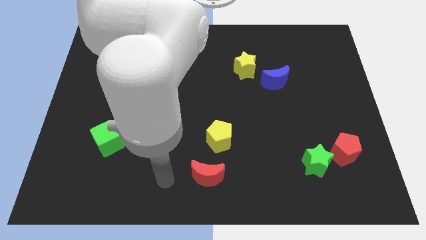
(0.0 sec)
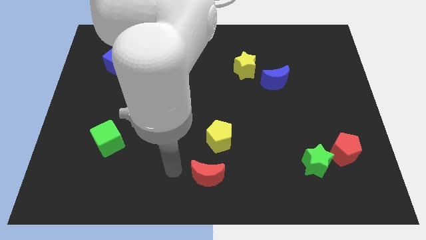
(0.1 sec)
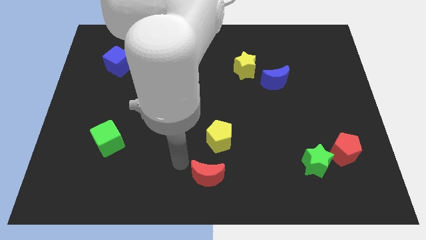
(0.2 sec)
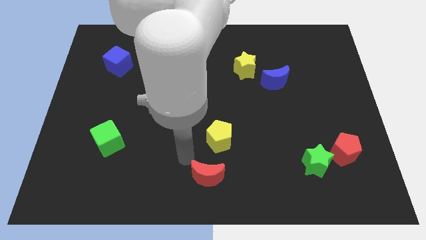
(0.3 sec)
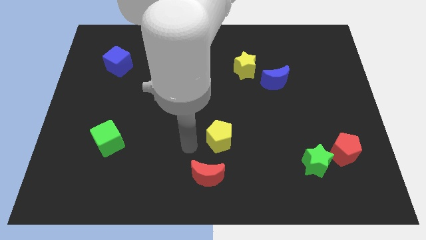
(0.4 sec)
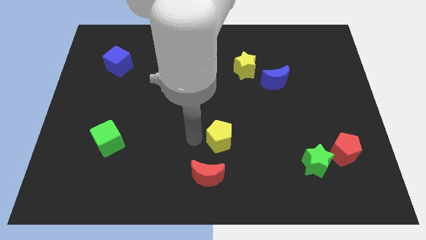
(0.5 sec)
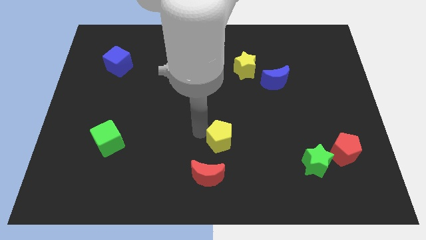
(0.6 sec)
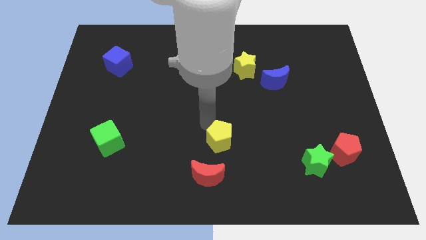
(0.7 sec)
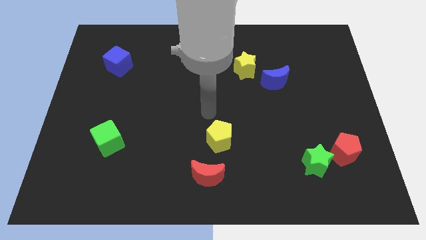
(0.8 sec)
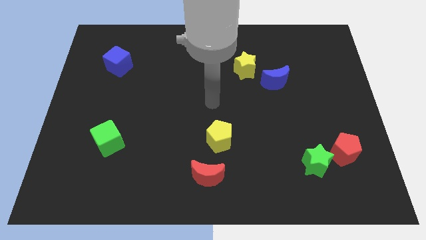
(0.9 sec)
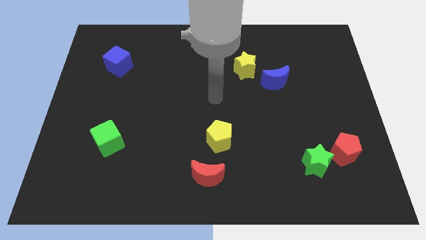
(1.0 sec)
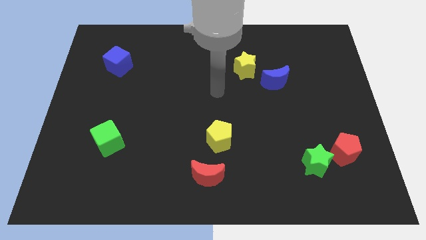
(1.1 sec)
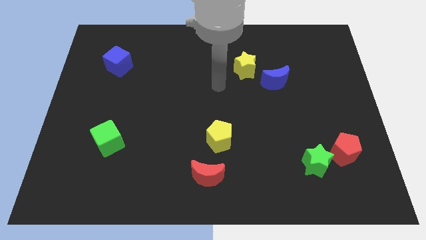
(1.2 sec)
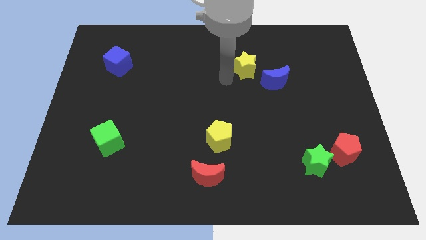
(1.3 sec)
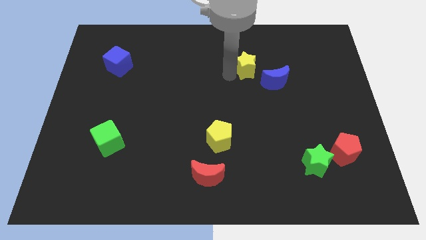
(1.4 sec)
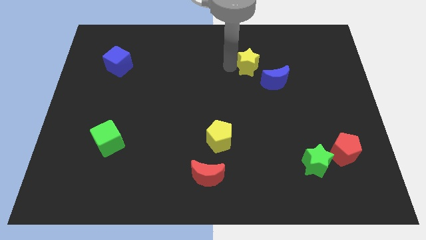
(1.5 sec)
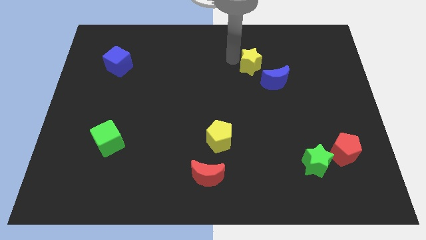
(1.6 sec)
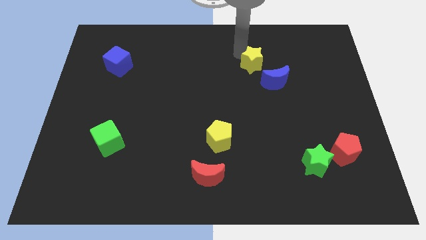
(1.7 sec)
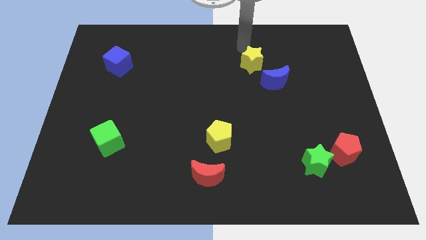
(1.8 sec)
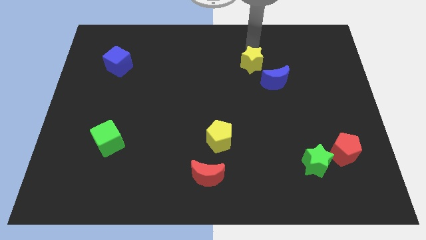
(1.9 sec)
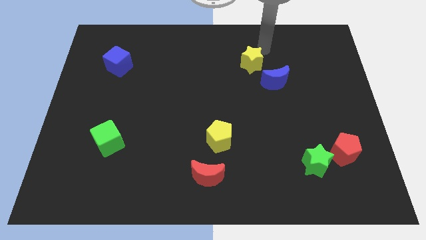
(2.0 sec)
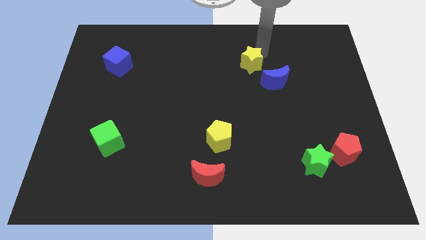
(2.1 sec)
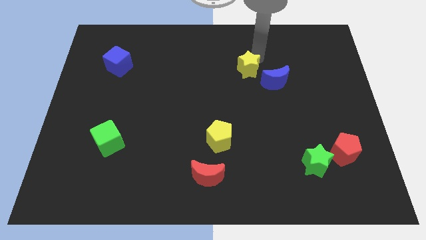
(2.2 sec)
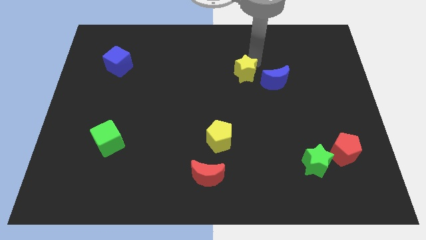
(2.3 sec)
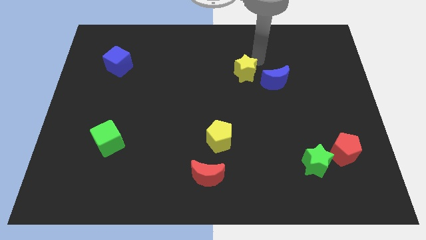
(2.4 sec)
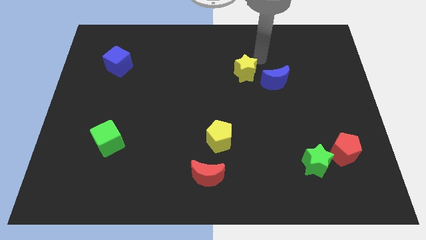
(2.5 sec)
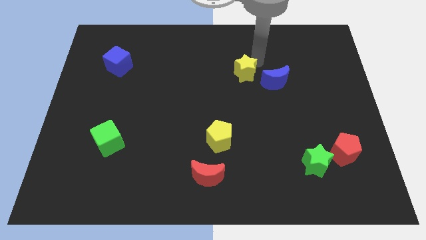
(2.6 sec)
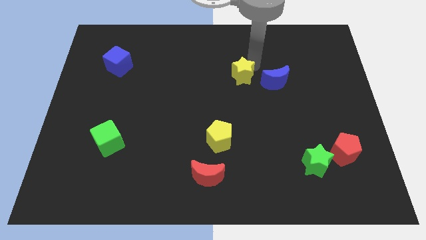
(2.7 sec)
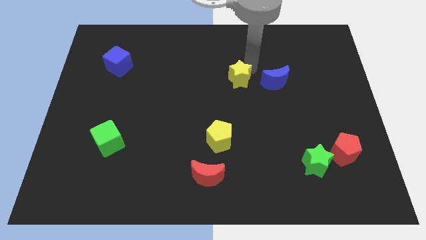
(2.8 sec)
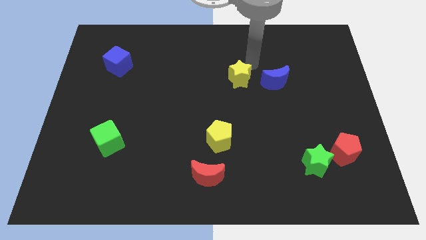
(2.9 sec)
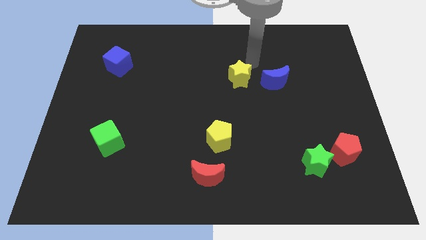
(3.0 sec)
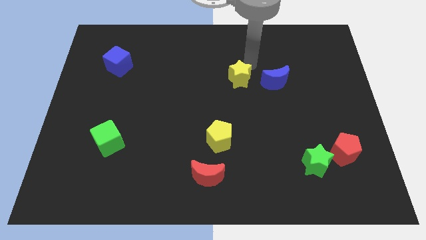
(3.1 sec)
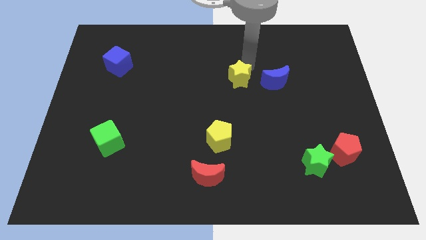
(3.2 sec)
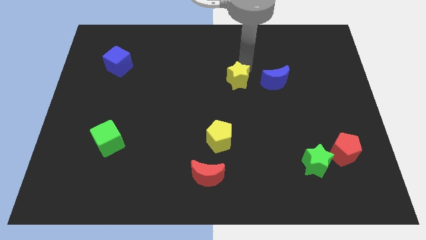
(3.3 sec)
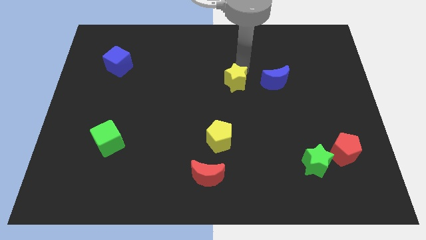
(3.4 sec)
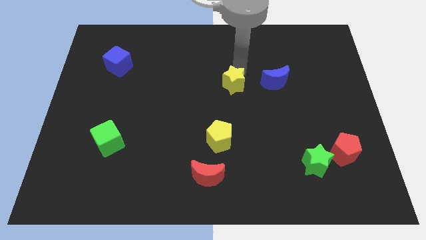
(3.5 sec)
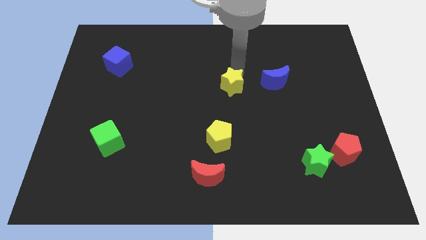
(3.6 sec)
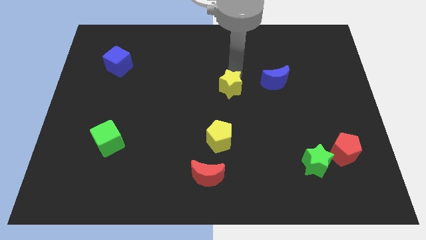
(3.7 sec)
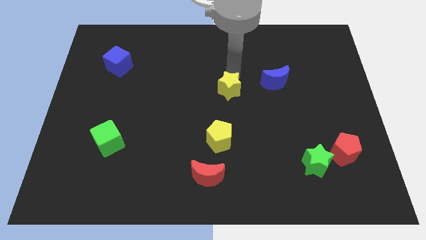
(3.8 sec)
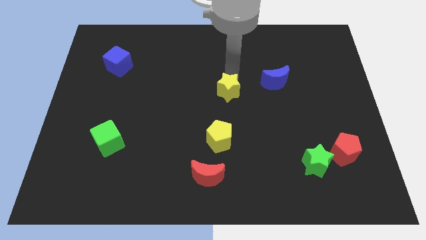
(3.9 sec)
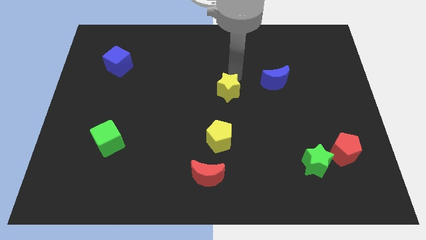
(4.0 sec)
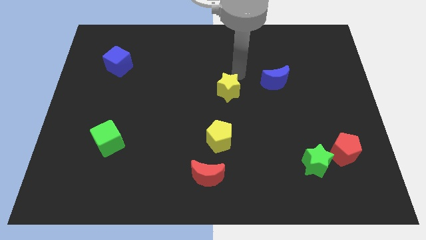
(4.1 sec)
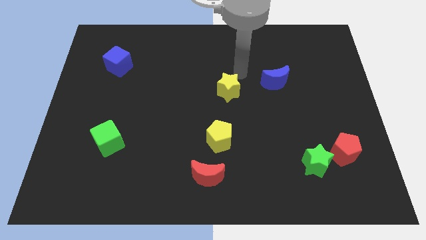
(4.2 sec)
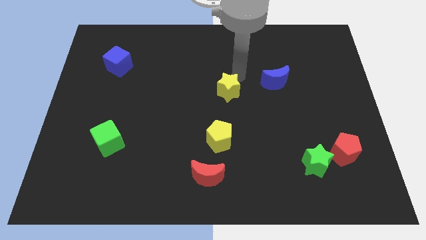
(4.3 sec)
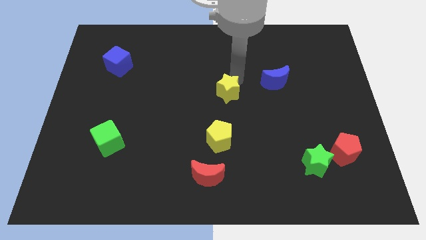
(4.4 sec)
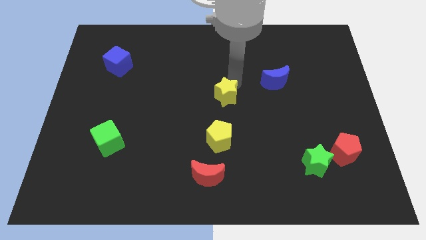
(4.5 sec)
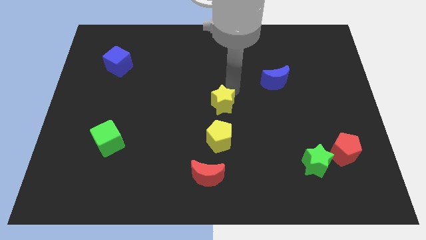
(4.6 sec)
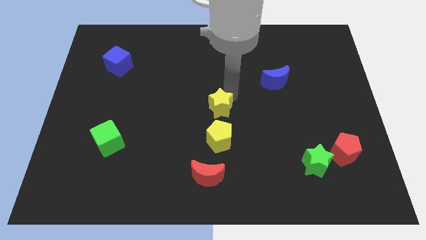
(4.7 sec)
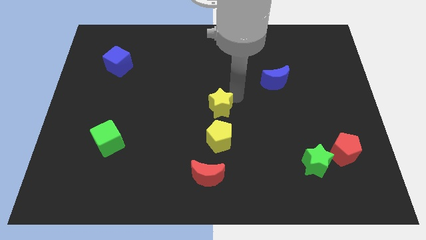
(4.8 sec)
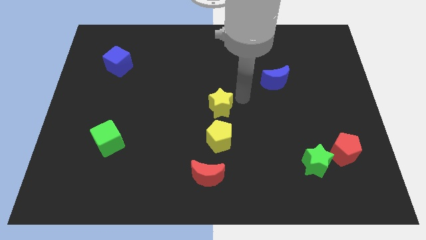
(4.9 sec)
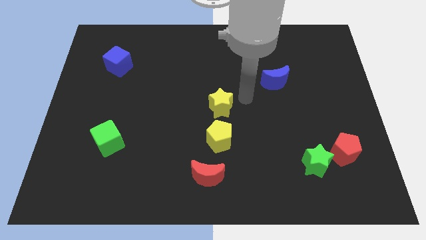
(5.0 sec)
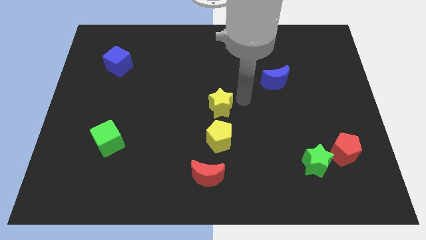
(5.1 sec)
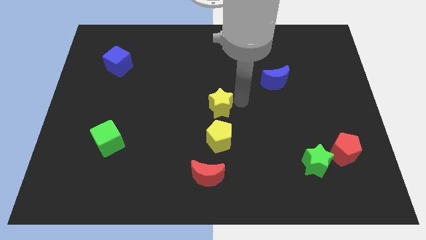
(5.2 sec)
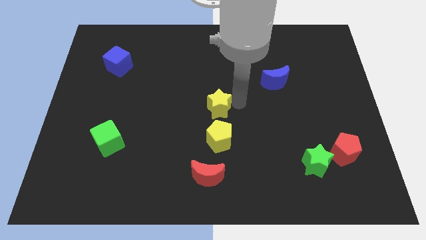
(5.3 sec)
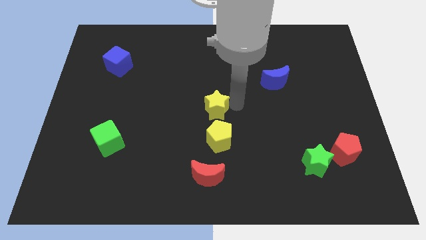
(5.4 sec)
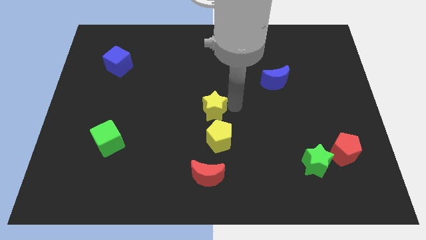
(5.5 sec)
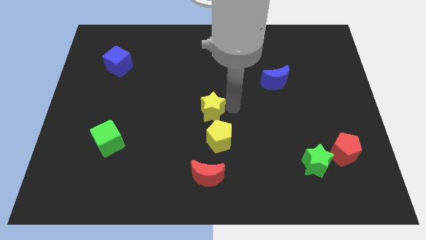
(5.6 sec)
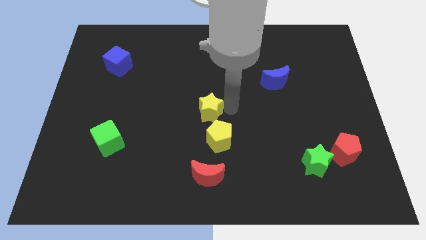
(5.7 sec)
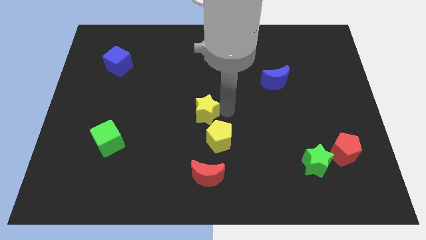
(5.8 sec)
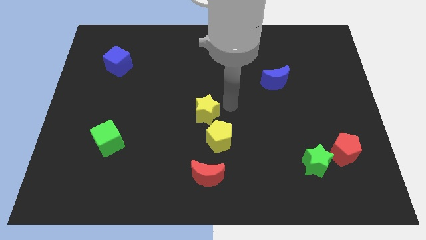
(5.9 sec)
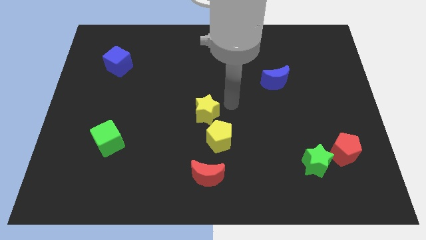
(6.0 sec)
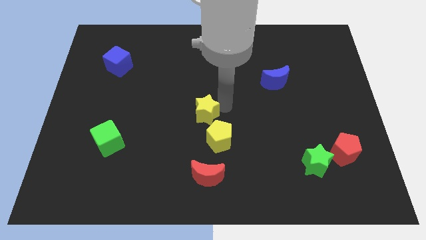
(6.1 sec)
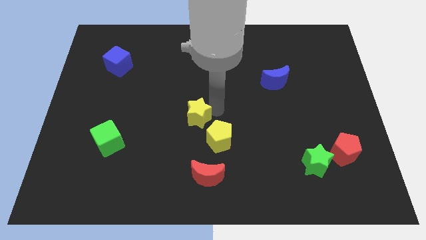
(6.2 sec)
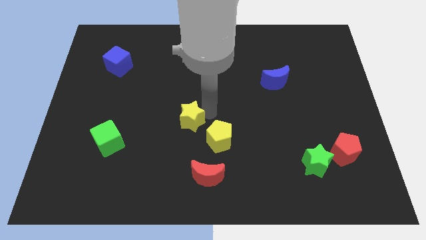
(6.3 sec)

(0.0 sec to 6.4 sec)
move the yellow star downwards and left

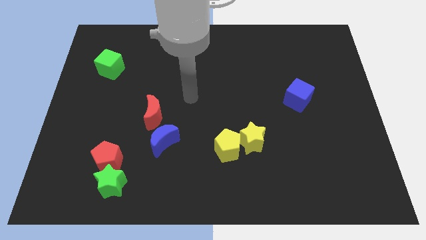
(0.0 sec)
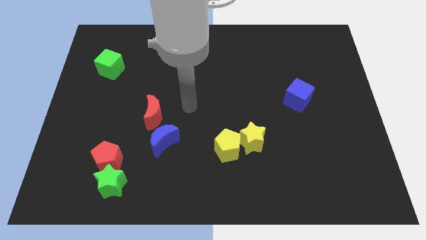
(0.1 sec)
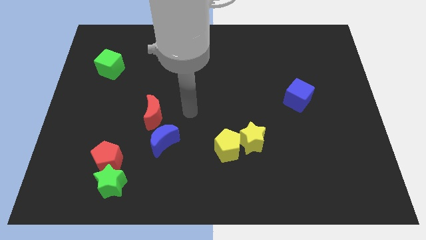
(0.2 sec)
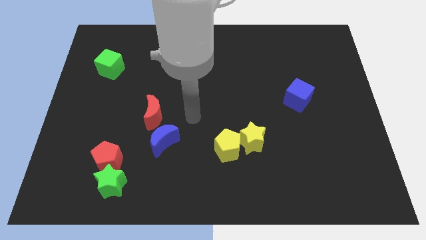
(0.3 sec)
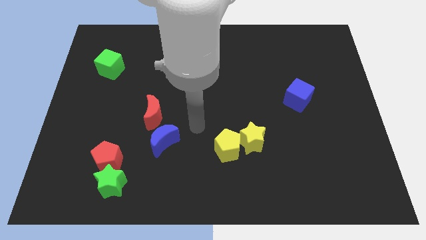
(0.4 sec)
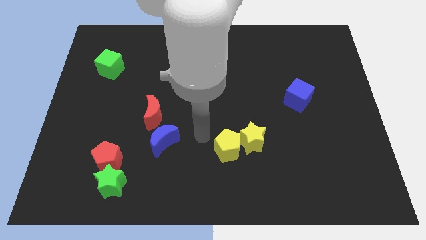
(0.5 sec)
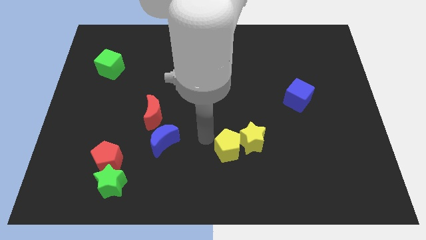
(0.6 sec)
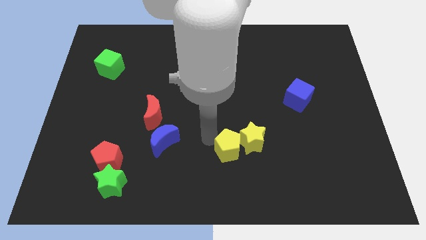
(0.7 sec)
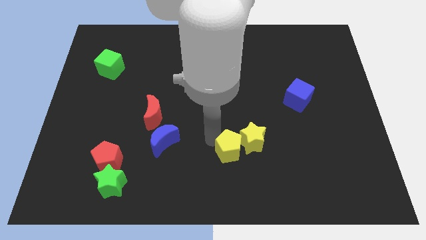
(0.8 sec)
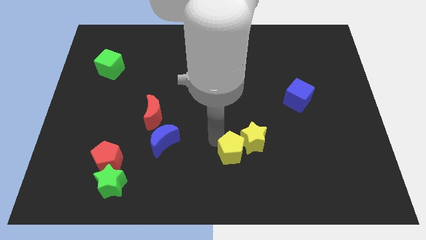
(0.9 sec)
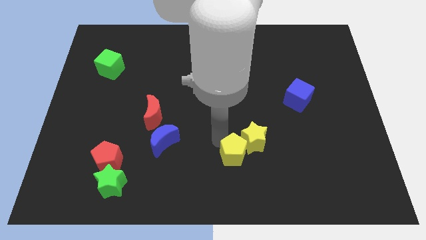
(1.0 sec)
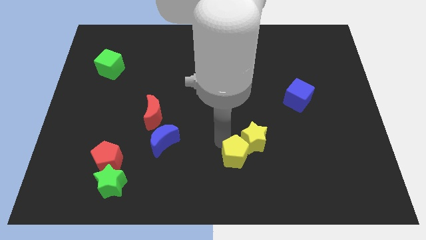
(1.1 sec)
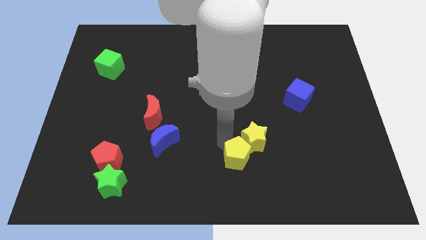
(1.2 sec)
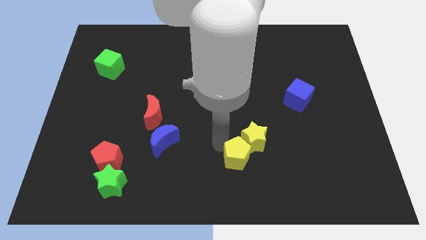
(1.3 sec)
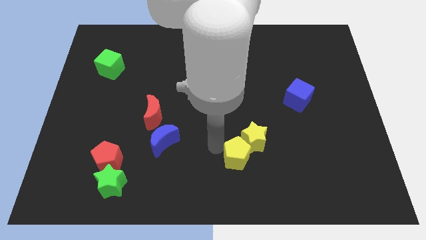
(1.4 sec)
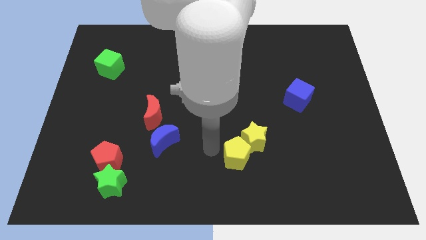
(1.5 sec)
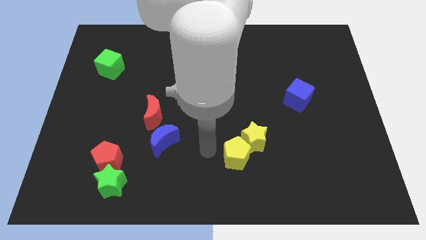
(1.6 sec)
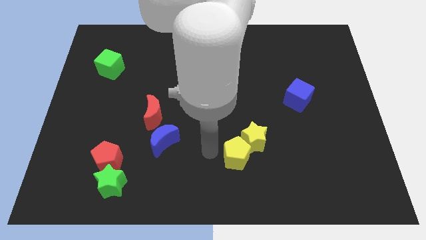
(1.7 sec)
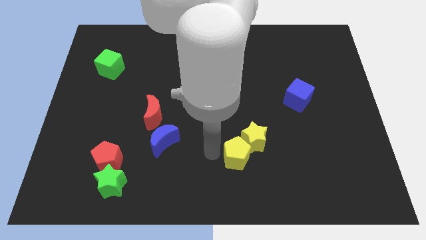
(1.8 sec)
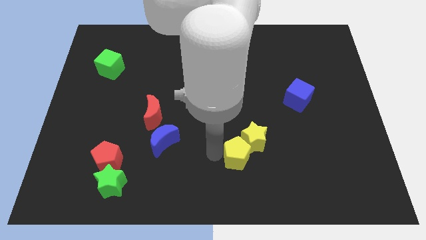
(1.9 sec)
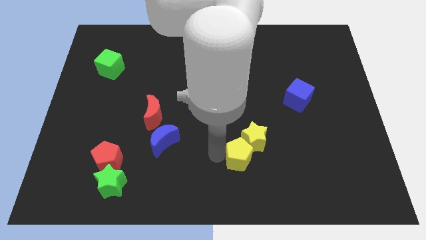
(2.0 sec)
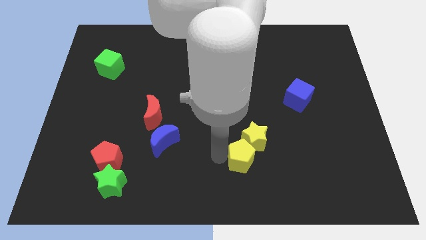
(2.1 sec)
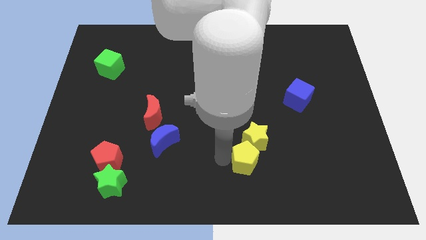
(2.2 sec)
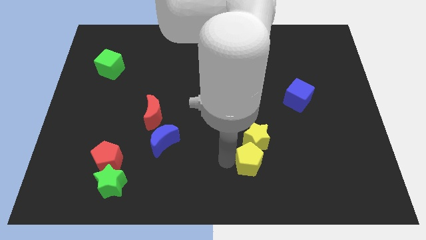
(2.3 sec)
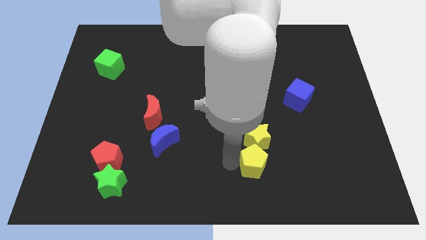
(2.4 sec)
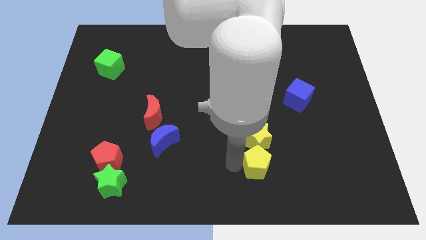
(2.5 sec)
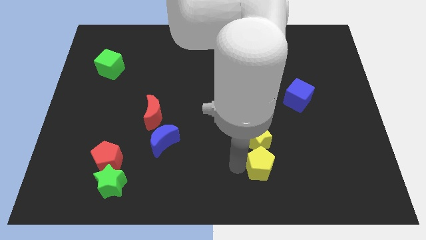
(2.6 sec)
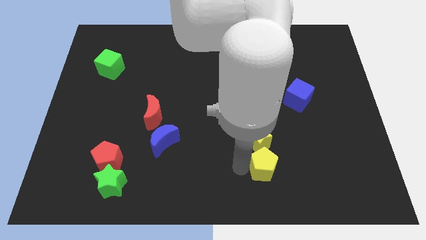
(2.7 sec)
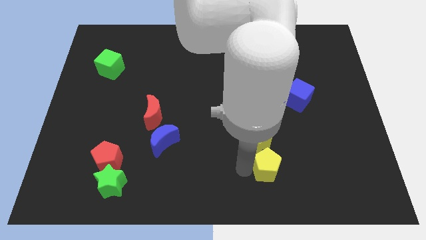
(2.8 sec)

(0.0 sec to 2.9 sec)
move the yellow pentagon a little bit right
